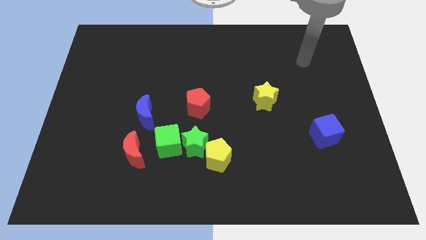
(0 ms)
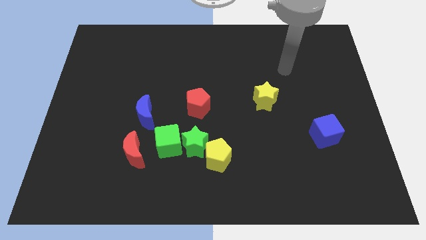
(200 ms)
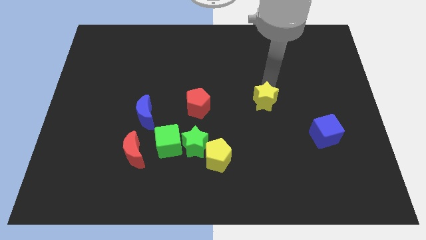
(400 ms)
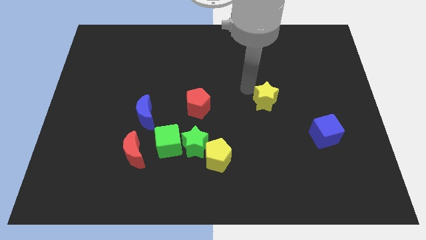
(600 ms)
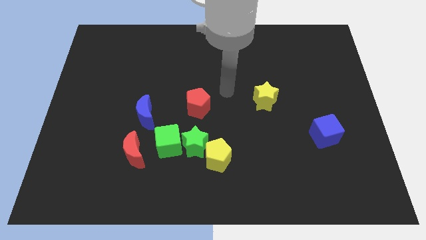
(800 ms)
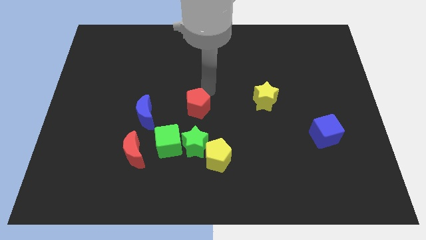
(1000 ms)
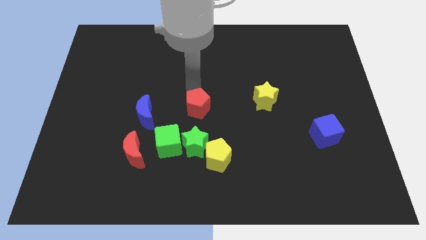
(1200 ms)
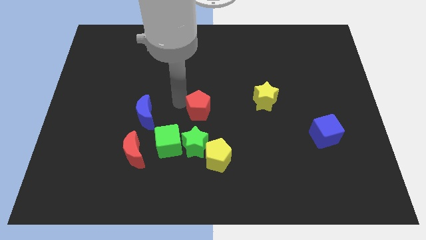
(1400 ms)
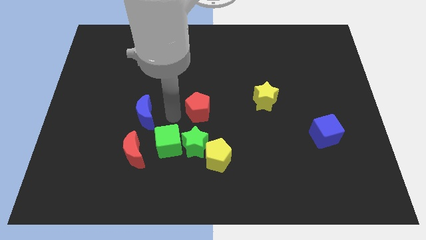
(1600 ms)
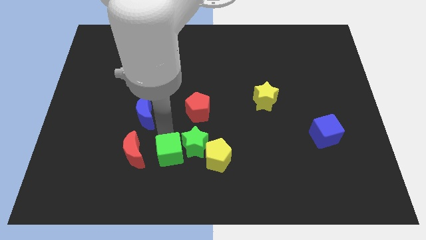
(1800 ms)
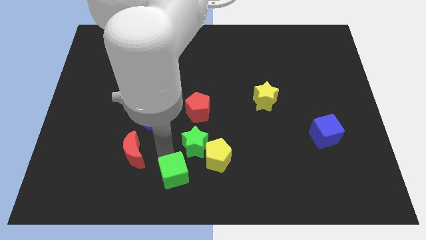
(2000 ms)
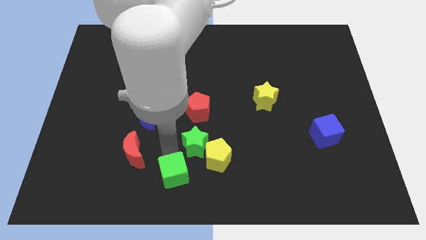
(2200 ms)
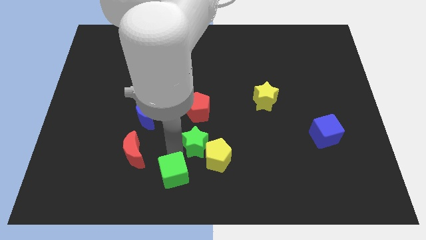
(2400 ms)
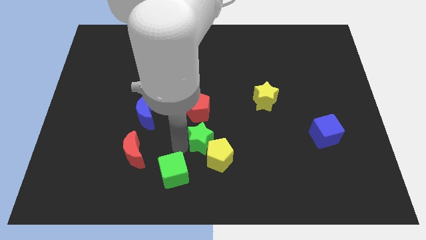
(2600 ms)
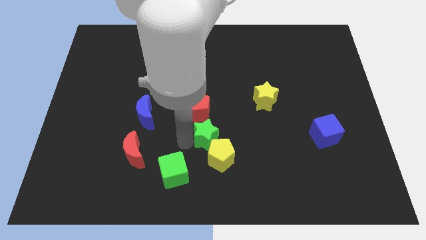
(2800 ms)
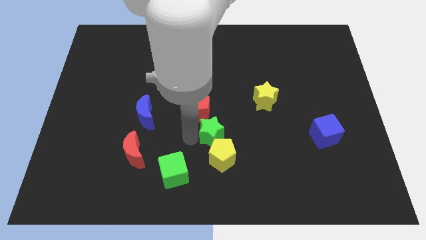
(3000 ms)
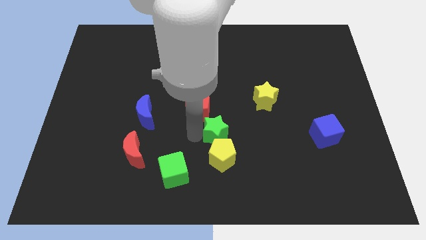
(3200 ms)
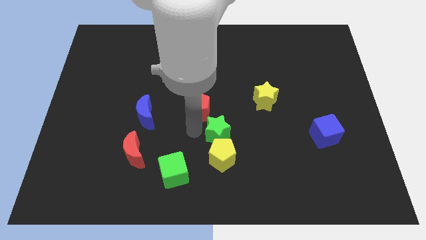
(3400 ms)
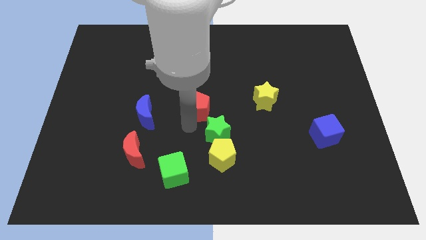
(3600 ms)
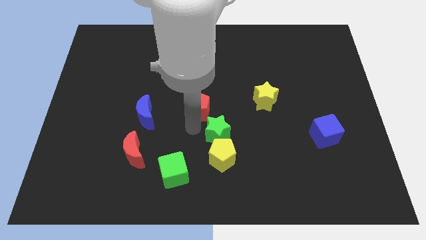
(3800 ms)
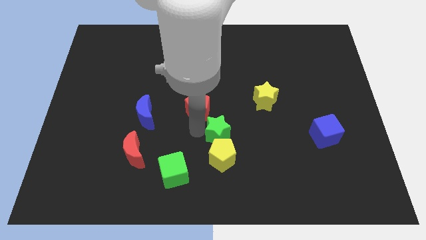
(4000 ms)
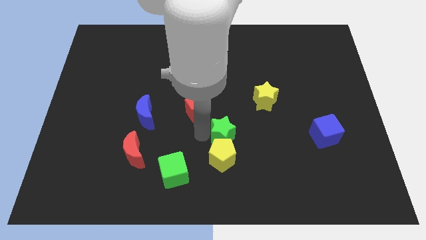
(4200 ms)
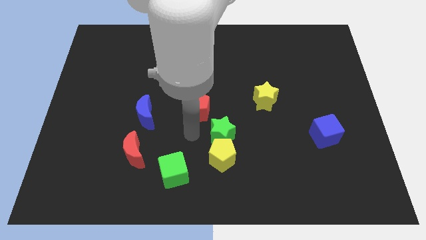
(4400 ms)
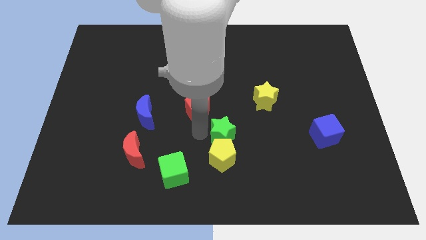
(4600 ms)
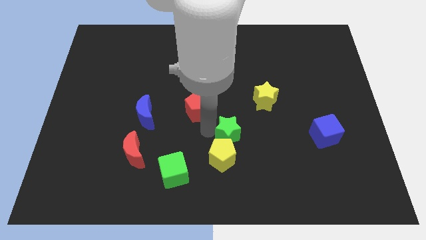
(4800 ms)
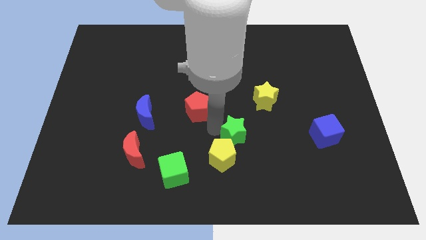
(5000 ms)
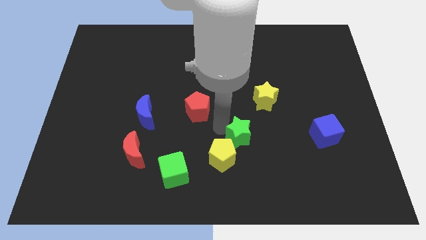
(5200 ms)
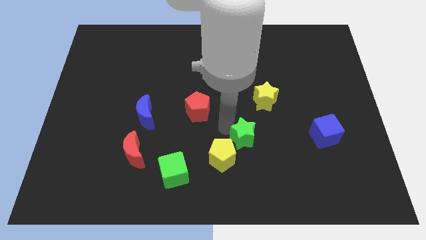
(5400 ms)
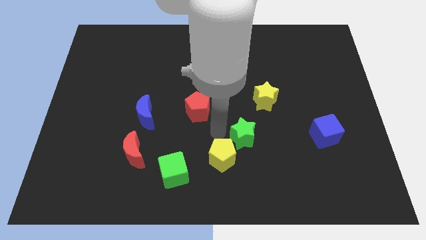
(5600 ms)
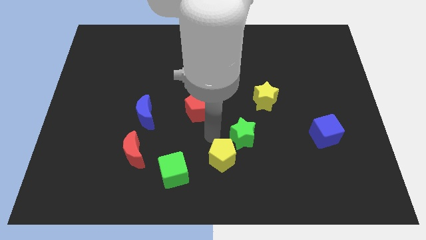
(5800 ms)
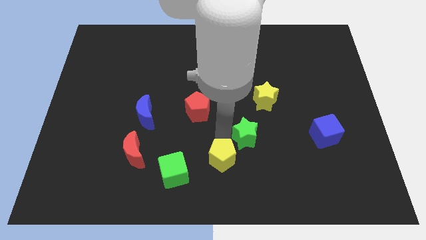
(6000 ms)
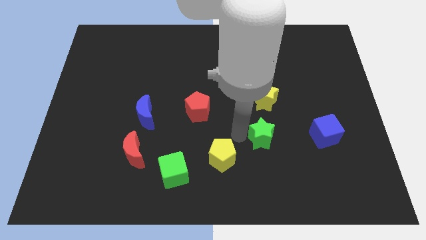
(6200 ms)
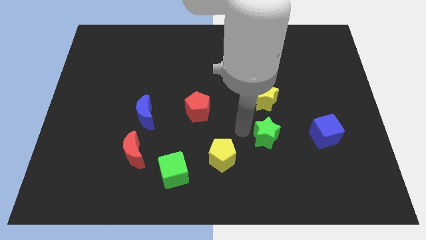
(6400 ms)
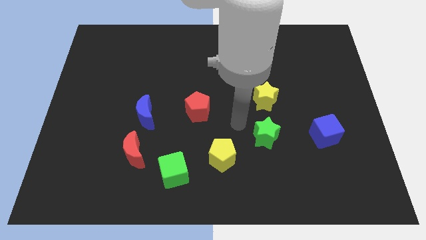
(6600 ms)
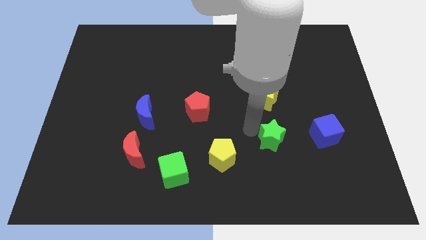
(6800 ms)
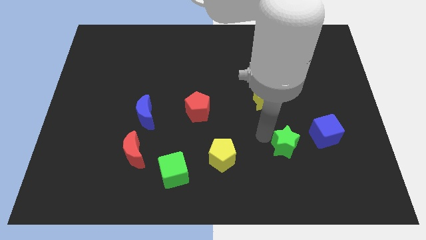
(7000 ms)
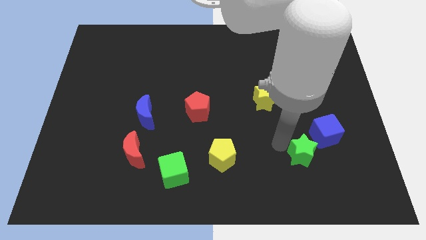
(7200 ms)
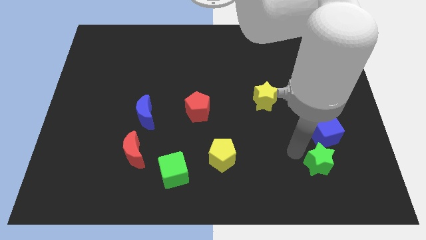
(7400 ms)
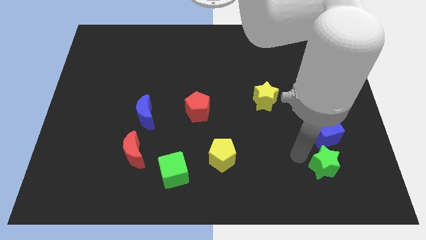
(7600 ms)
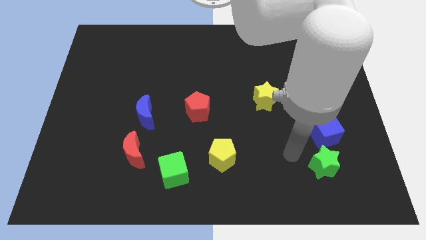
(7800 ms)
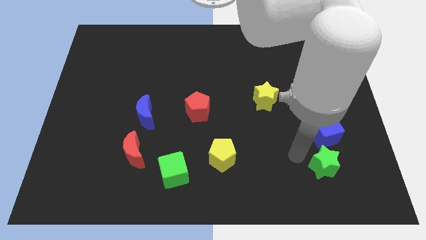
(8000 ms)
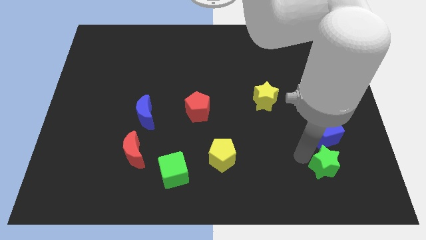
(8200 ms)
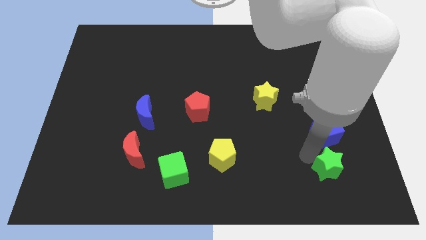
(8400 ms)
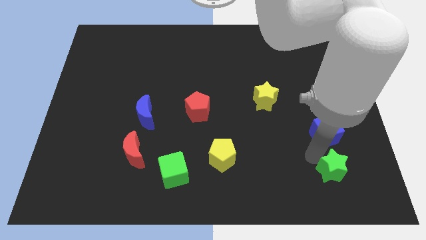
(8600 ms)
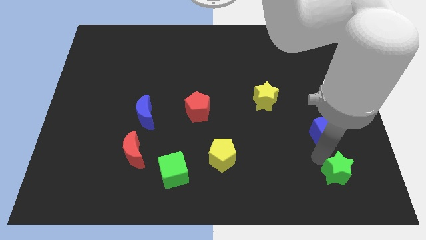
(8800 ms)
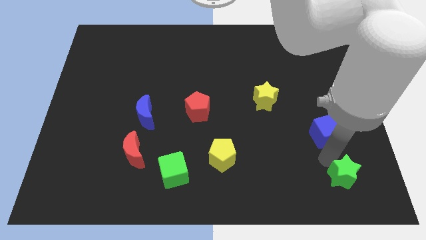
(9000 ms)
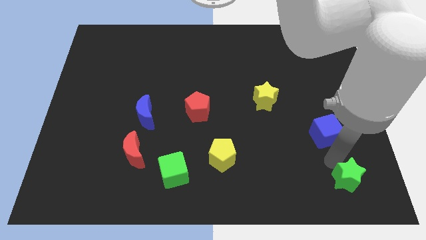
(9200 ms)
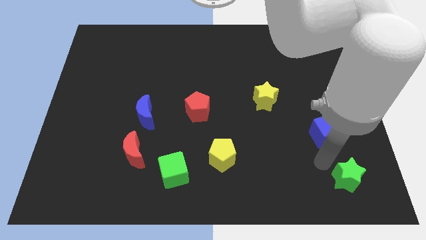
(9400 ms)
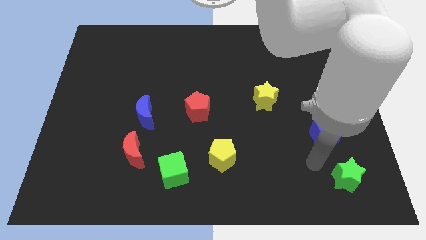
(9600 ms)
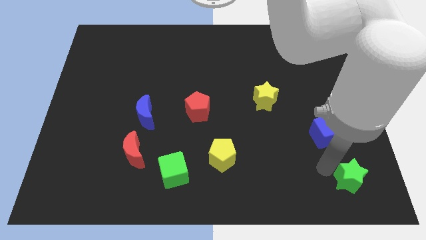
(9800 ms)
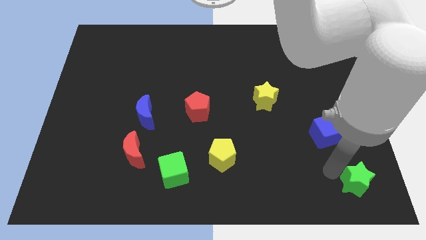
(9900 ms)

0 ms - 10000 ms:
push the green star to the bottom right

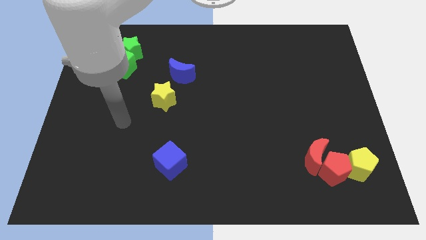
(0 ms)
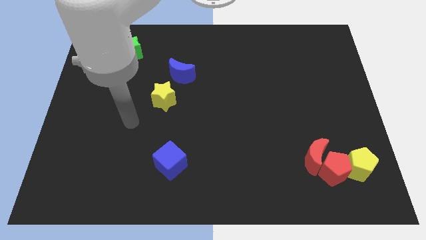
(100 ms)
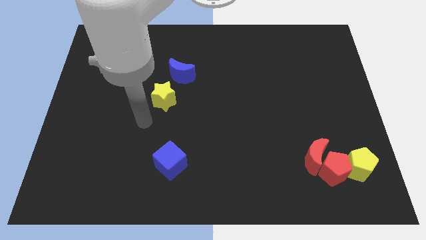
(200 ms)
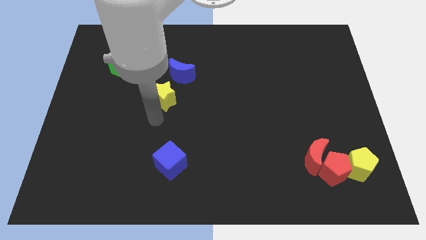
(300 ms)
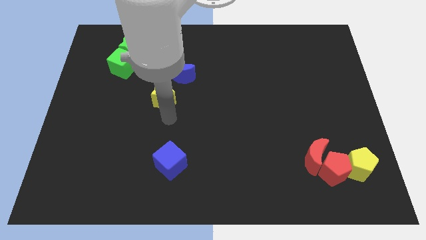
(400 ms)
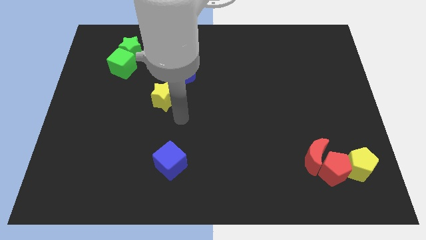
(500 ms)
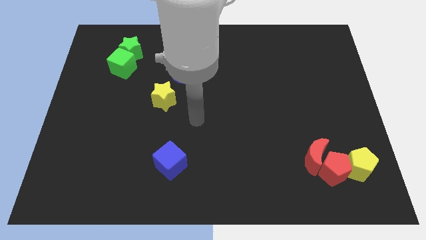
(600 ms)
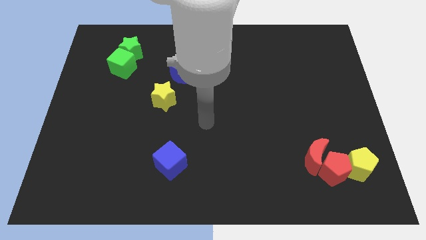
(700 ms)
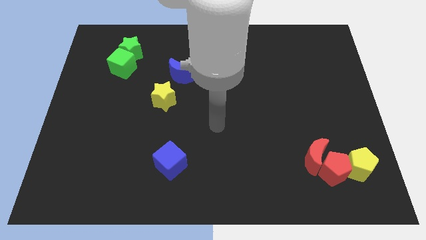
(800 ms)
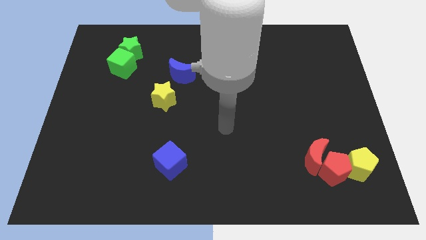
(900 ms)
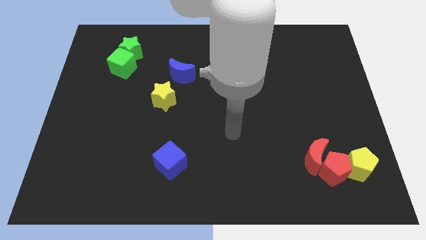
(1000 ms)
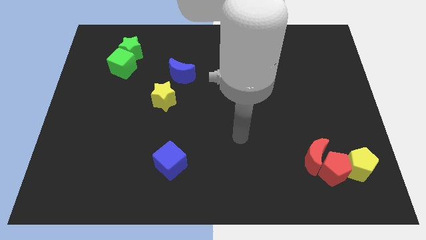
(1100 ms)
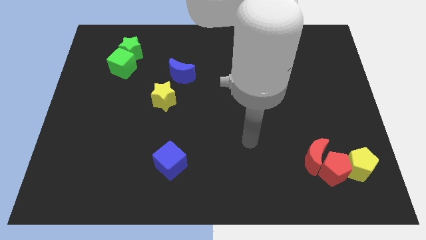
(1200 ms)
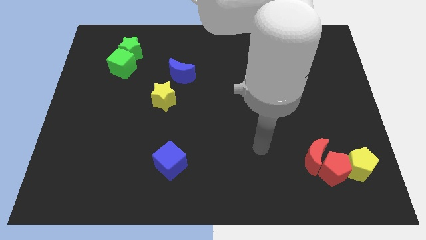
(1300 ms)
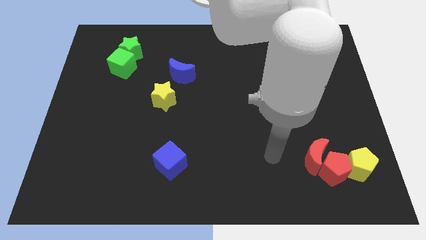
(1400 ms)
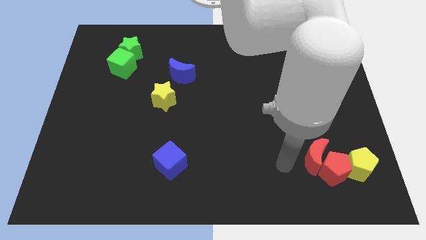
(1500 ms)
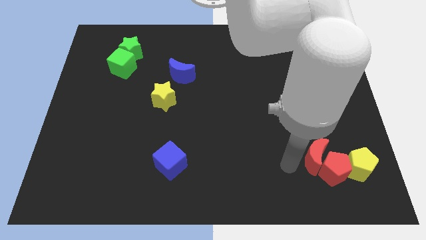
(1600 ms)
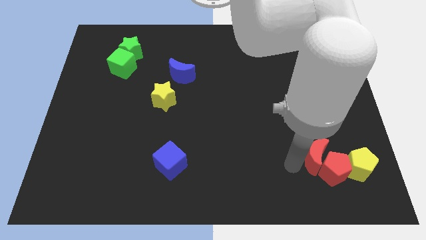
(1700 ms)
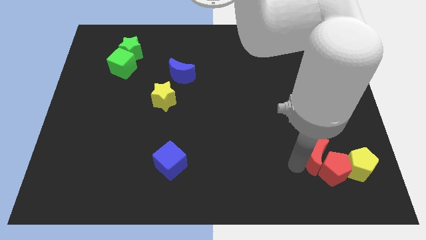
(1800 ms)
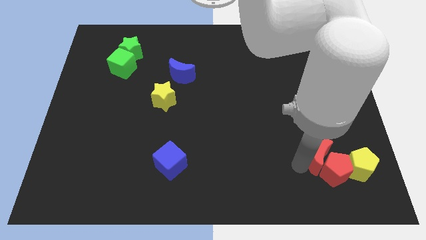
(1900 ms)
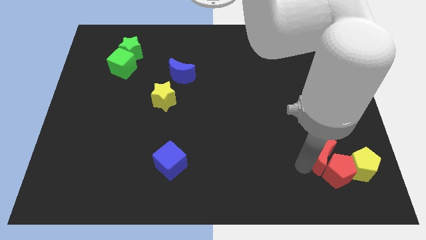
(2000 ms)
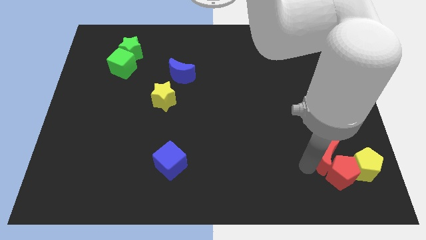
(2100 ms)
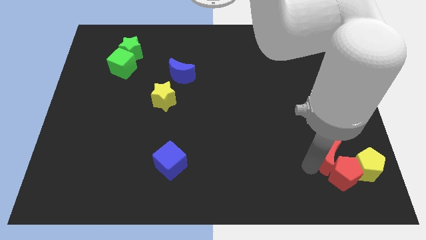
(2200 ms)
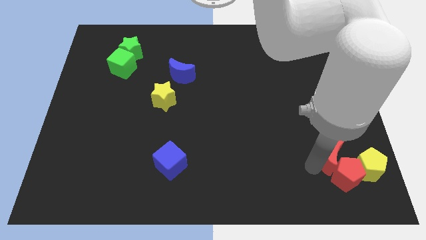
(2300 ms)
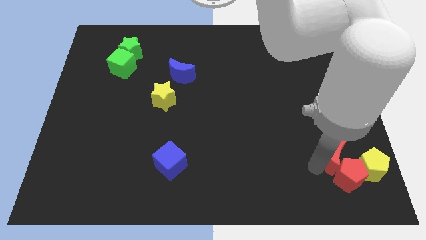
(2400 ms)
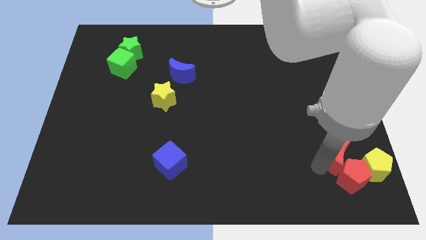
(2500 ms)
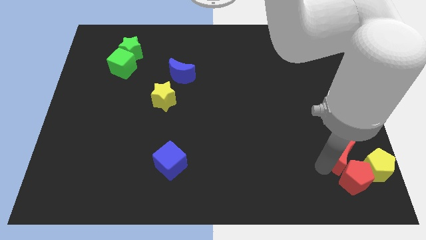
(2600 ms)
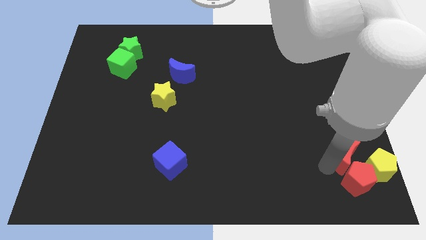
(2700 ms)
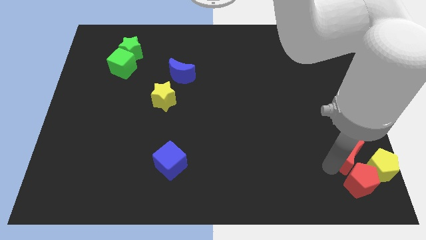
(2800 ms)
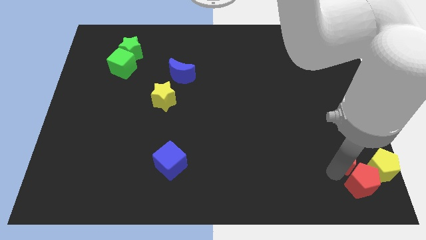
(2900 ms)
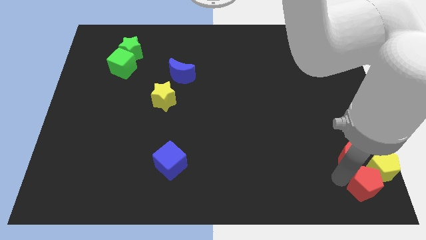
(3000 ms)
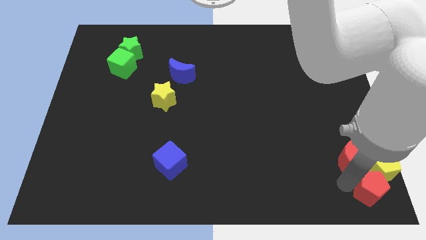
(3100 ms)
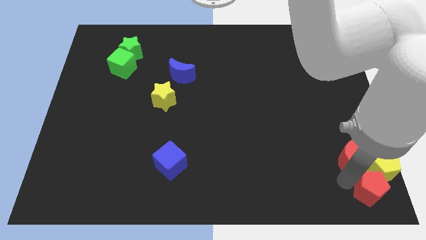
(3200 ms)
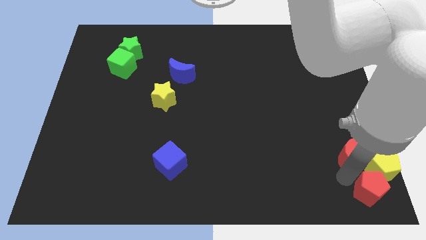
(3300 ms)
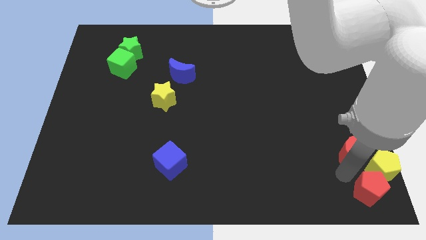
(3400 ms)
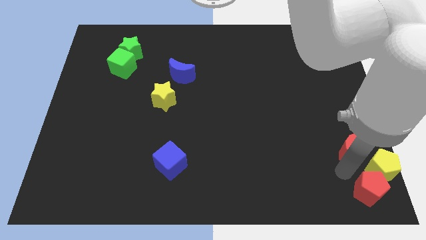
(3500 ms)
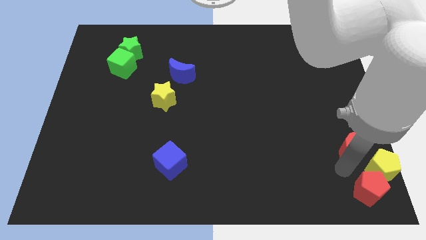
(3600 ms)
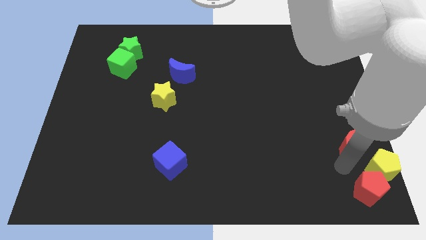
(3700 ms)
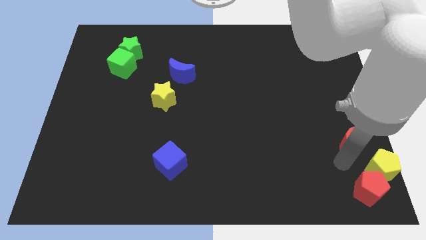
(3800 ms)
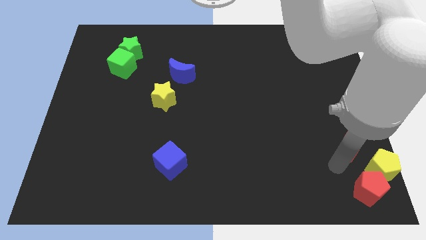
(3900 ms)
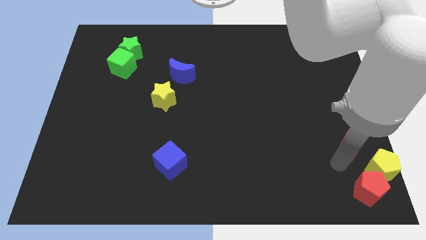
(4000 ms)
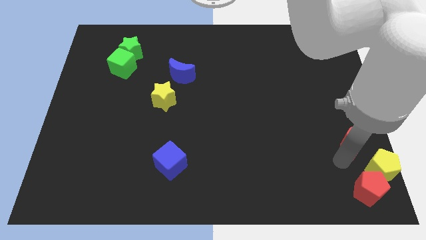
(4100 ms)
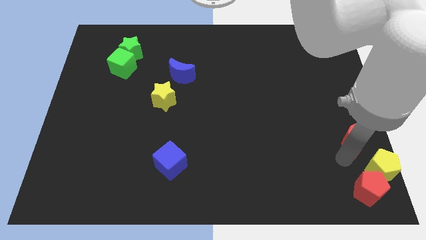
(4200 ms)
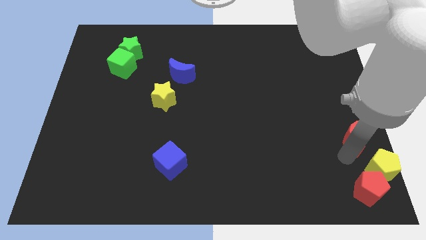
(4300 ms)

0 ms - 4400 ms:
move the red moon to the right side
